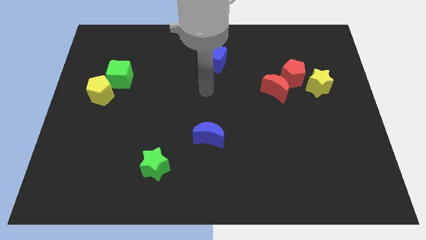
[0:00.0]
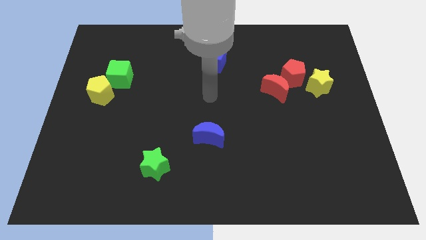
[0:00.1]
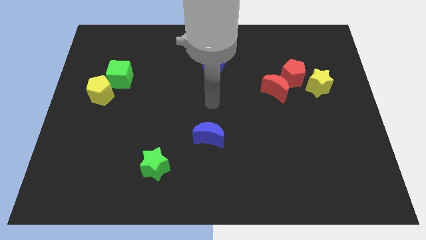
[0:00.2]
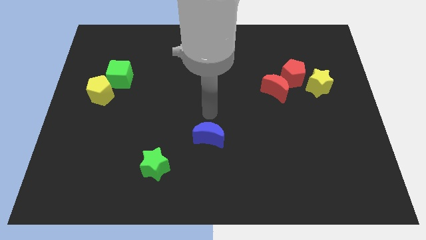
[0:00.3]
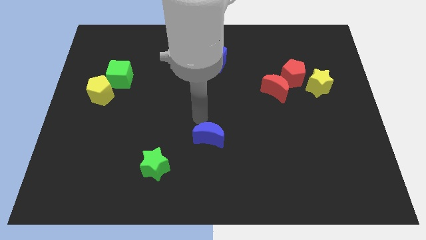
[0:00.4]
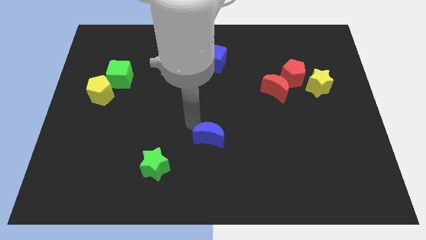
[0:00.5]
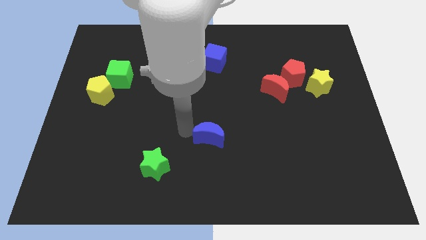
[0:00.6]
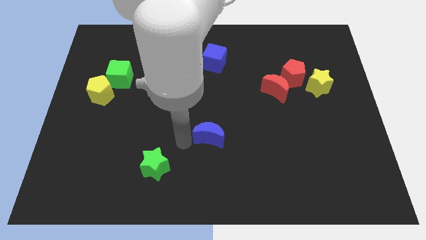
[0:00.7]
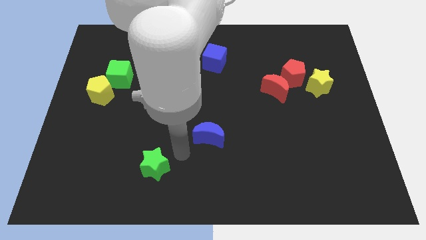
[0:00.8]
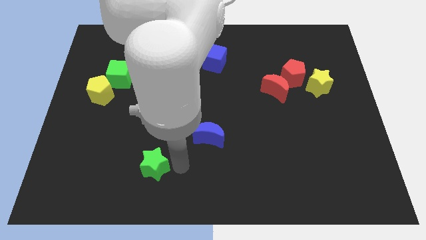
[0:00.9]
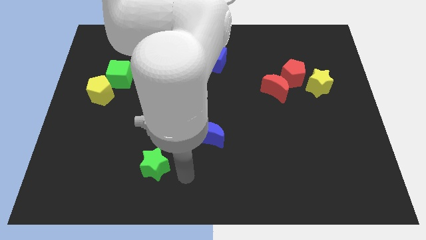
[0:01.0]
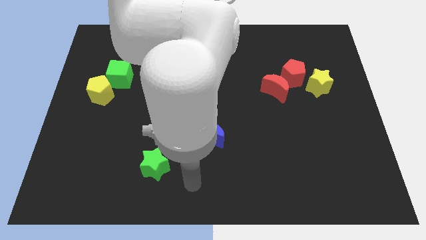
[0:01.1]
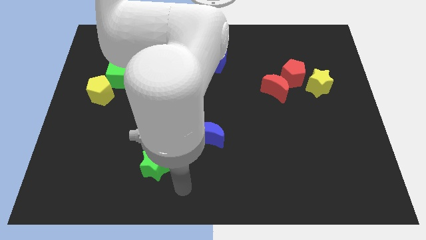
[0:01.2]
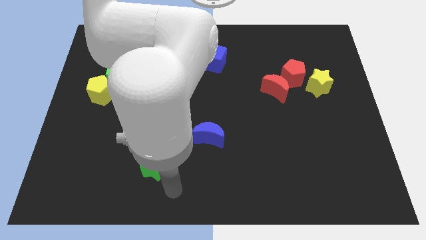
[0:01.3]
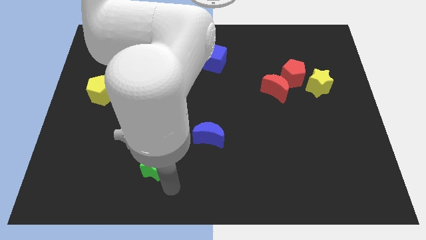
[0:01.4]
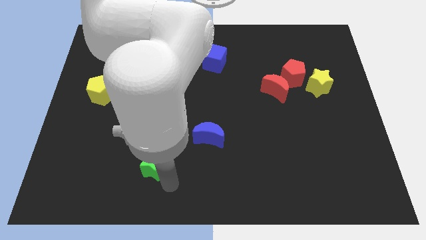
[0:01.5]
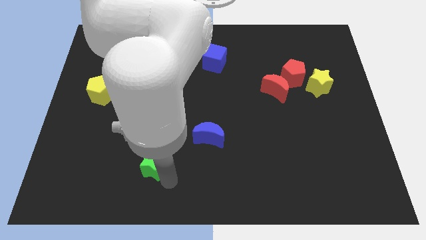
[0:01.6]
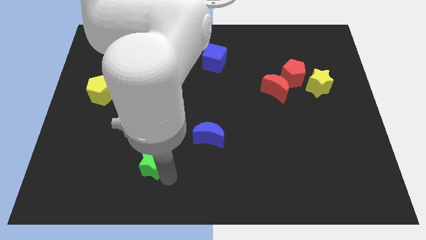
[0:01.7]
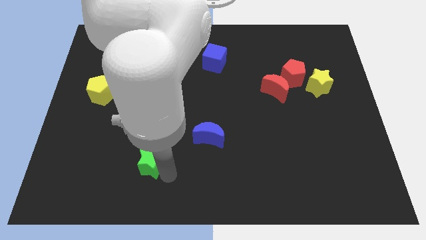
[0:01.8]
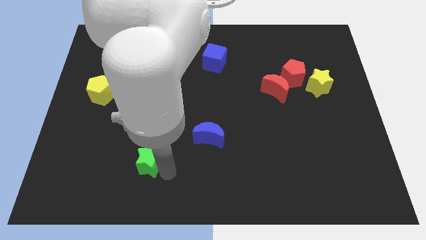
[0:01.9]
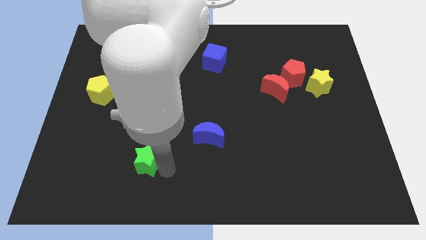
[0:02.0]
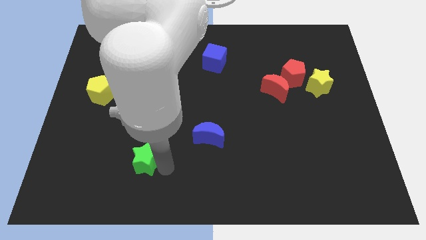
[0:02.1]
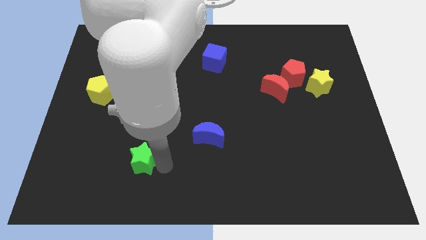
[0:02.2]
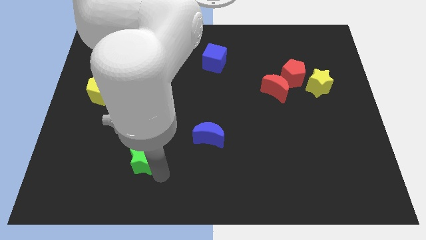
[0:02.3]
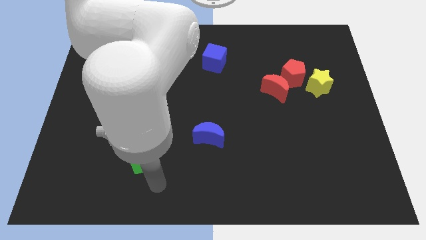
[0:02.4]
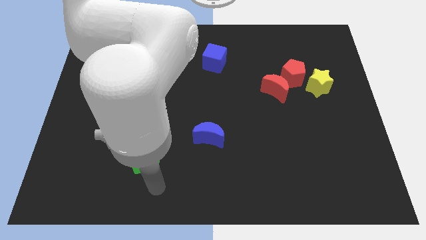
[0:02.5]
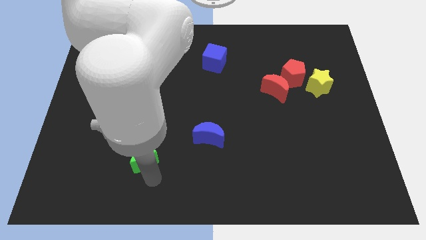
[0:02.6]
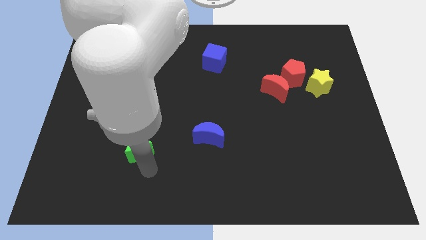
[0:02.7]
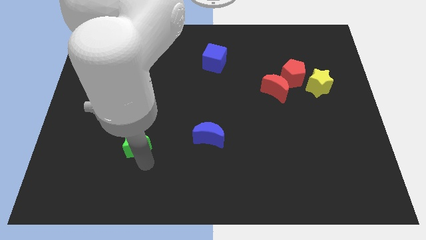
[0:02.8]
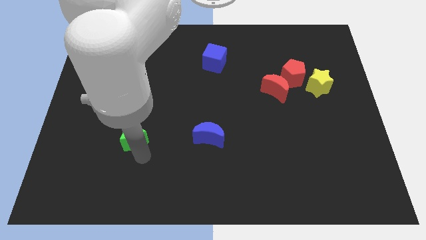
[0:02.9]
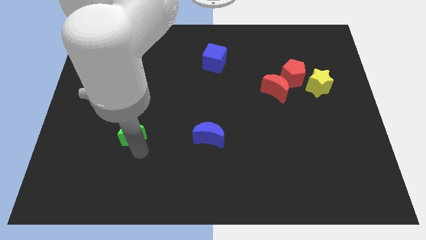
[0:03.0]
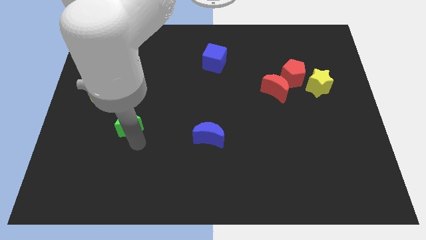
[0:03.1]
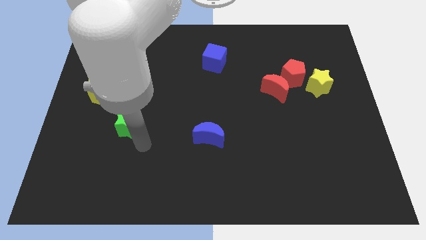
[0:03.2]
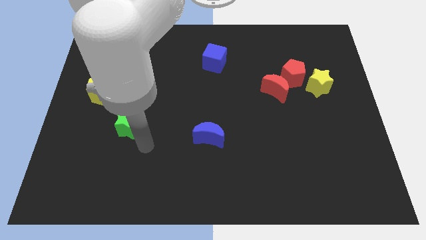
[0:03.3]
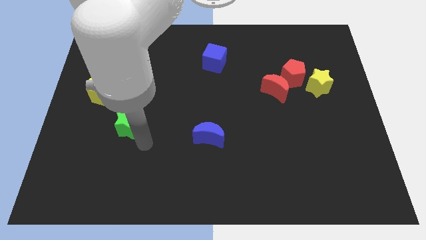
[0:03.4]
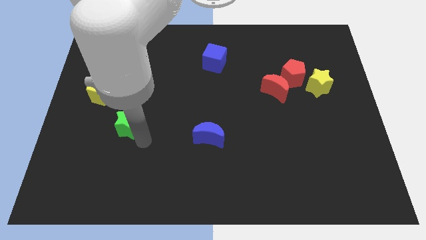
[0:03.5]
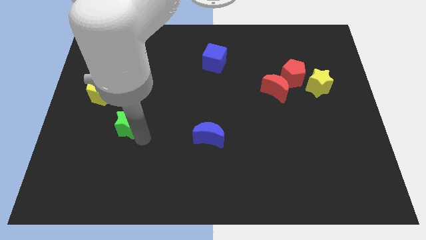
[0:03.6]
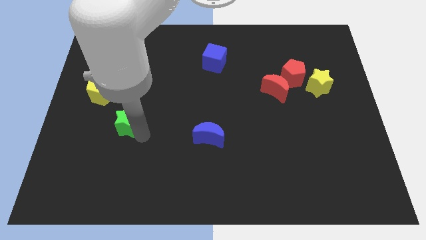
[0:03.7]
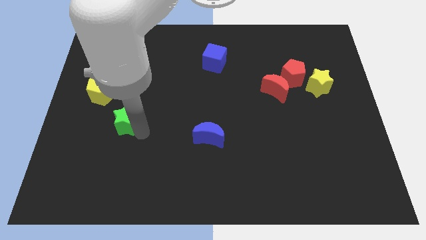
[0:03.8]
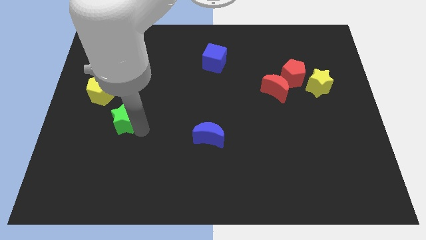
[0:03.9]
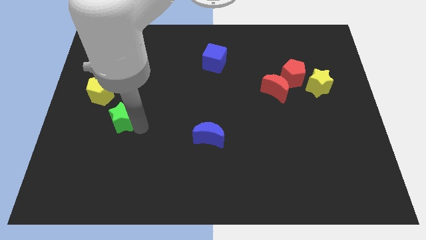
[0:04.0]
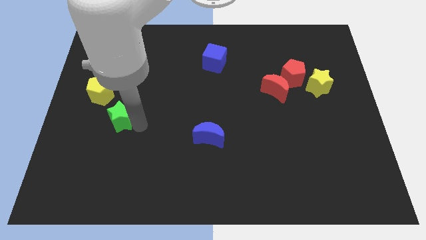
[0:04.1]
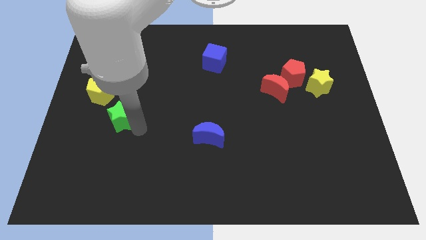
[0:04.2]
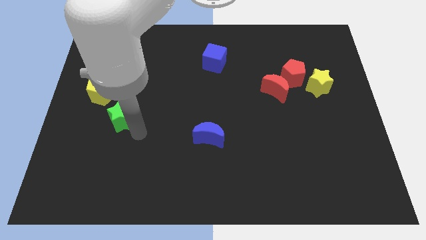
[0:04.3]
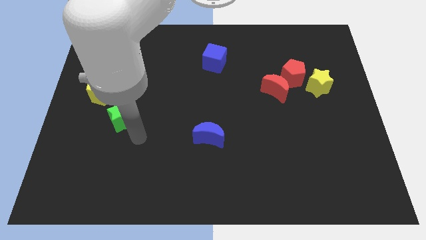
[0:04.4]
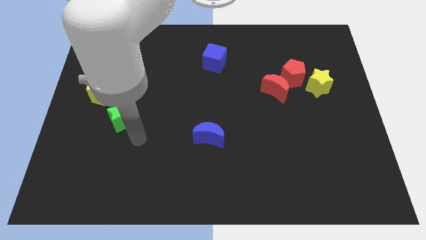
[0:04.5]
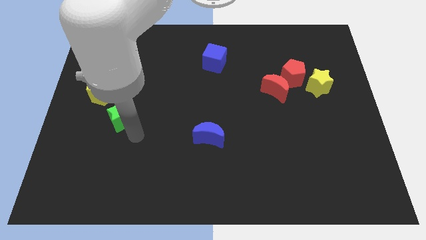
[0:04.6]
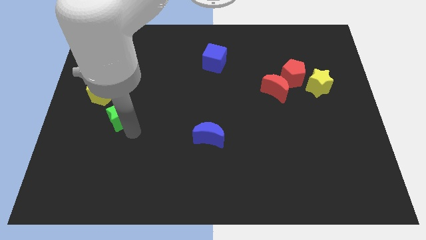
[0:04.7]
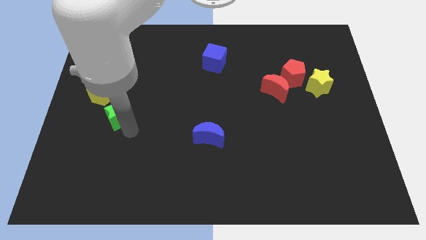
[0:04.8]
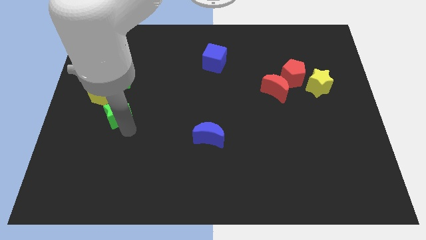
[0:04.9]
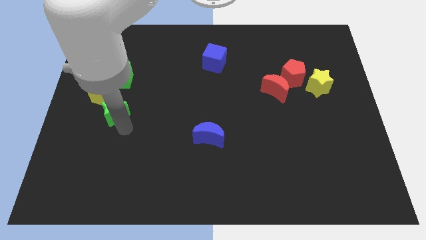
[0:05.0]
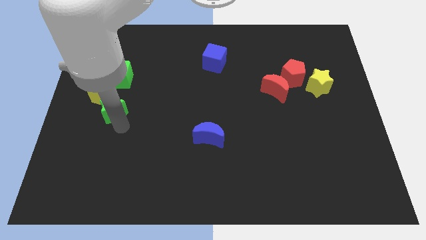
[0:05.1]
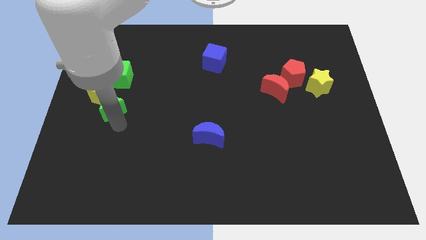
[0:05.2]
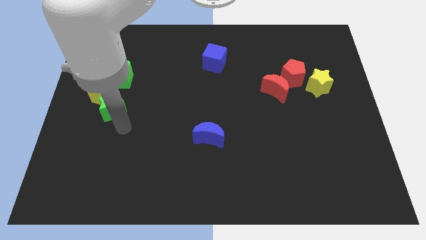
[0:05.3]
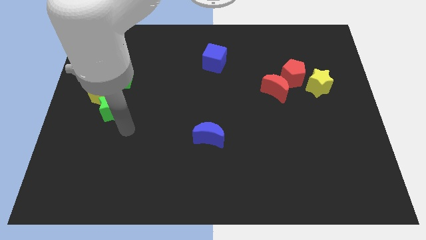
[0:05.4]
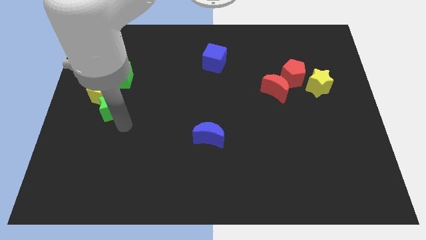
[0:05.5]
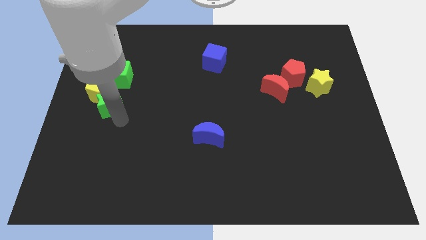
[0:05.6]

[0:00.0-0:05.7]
move the green star next to the yellow pentagon

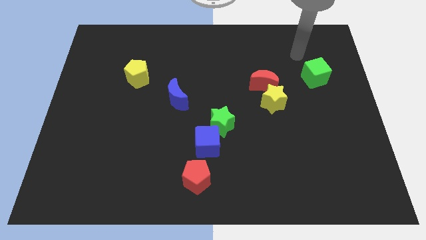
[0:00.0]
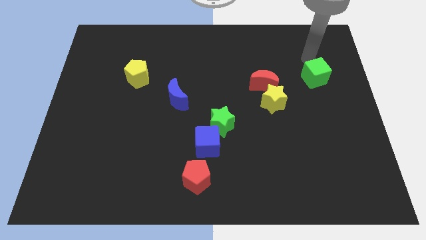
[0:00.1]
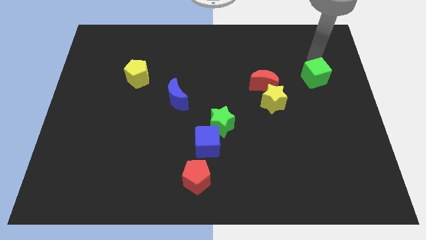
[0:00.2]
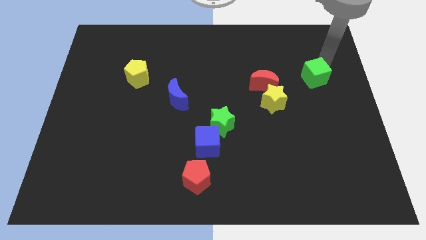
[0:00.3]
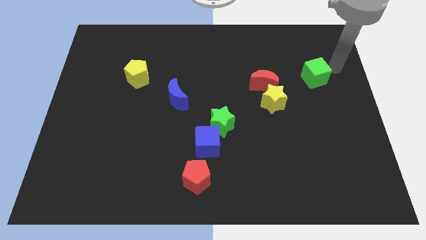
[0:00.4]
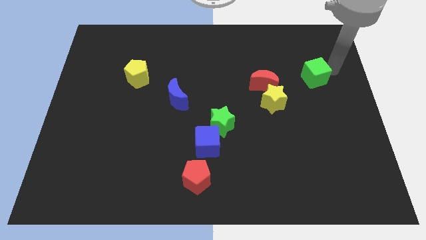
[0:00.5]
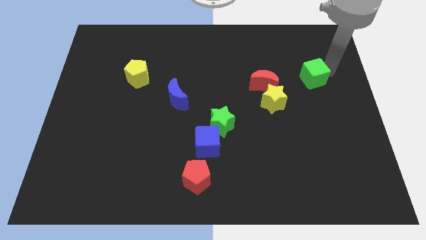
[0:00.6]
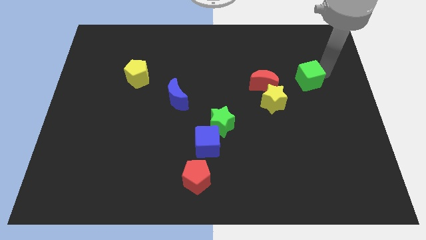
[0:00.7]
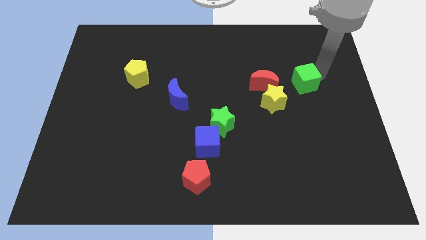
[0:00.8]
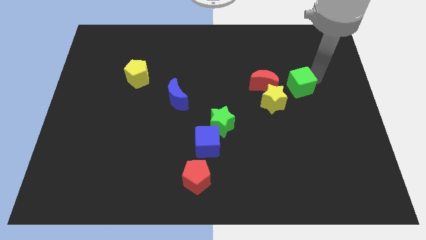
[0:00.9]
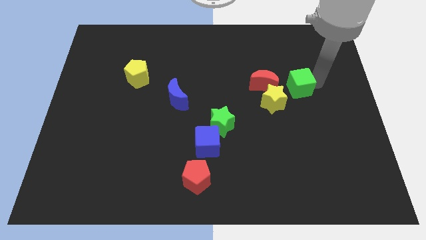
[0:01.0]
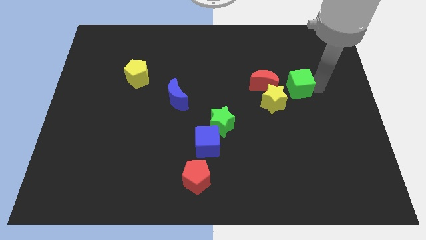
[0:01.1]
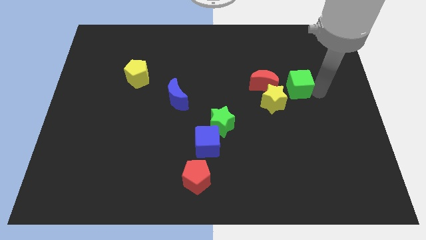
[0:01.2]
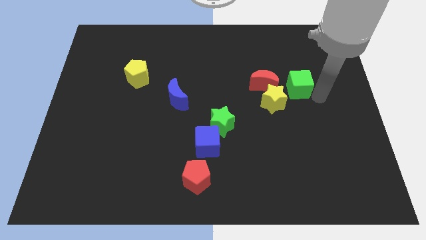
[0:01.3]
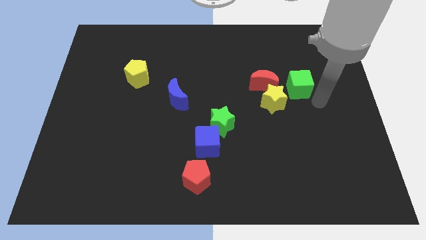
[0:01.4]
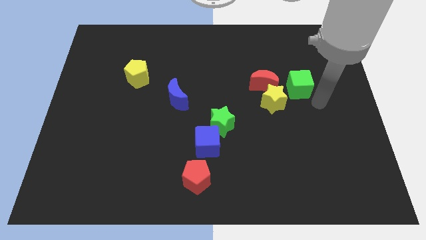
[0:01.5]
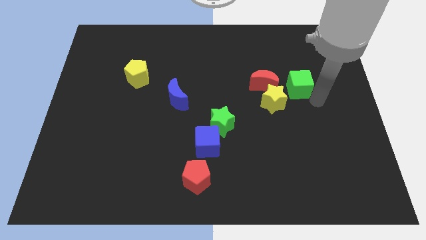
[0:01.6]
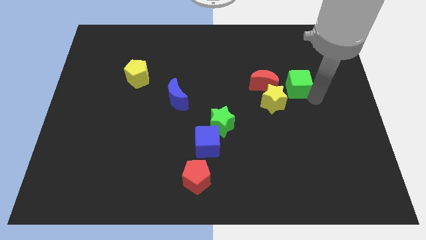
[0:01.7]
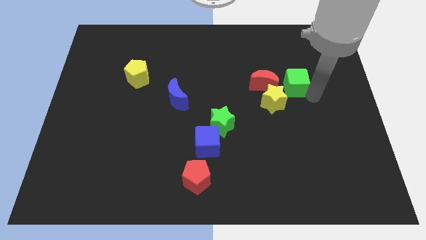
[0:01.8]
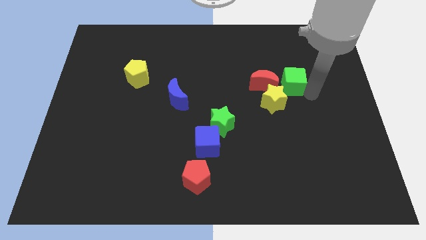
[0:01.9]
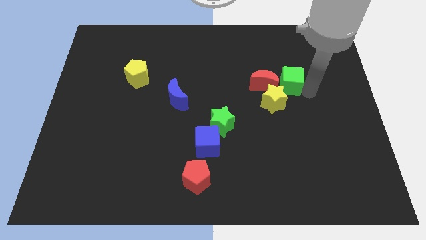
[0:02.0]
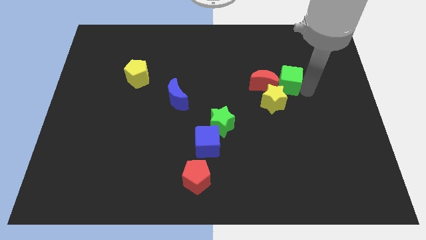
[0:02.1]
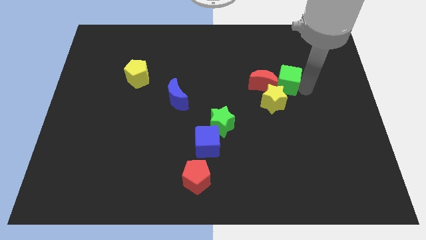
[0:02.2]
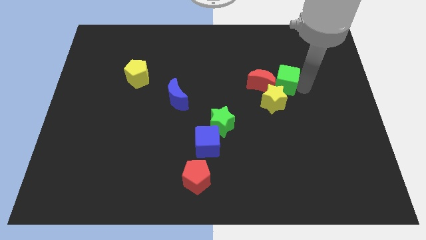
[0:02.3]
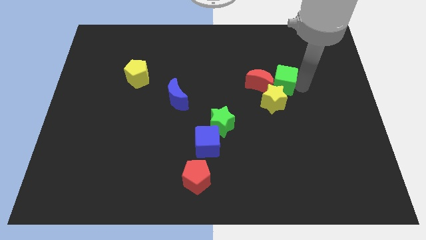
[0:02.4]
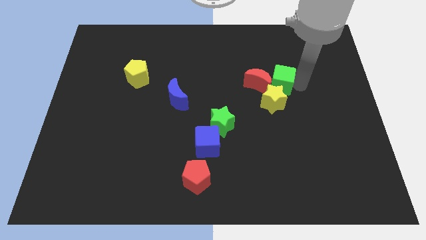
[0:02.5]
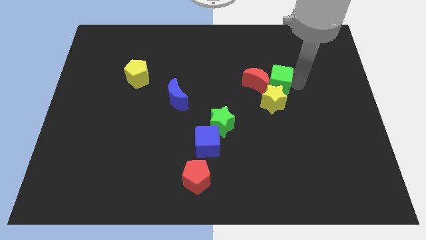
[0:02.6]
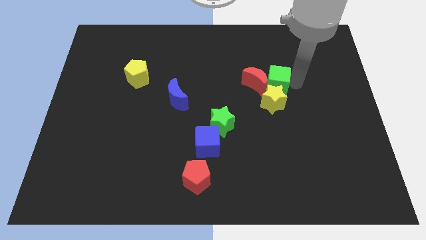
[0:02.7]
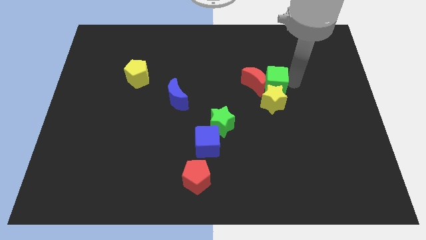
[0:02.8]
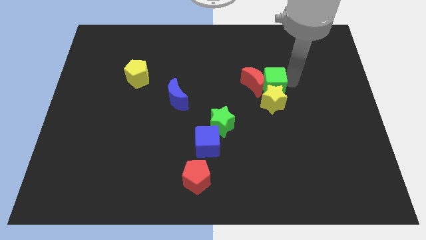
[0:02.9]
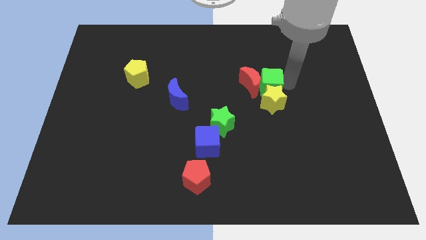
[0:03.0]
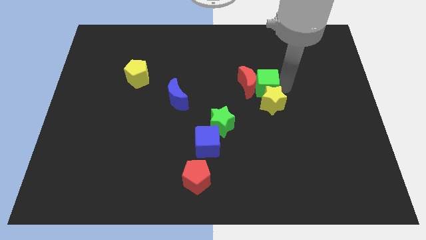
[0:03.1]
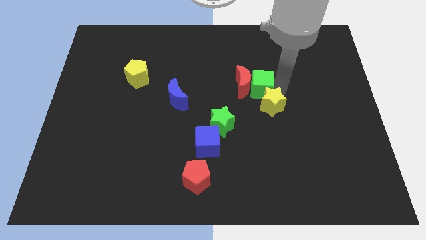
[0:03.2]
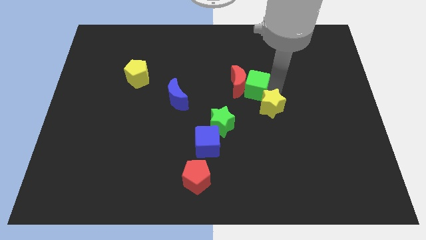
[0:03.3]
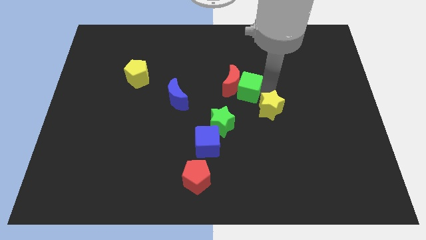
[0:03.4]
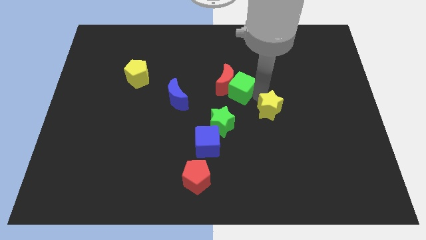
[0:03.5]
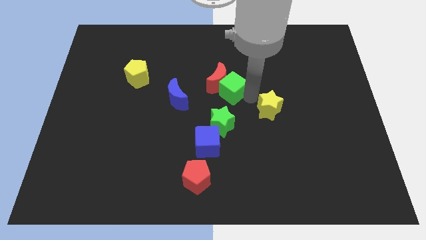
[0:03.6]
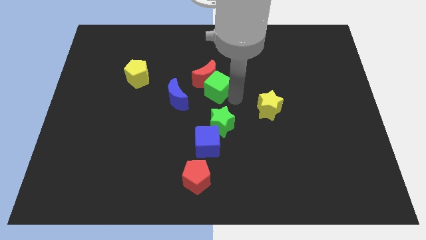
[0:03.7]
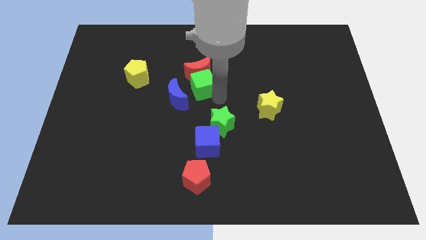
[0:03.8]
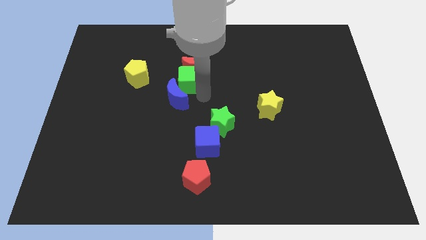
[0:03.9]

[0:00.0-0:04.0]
push the green cube next to the blue moon
